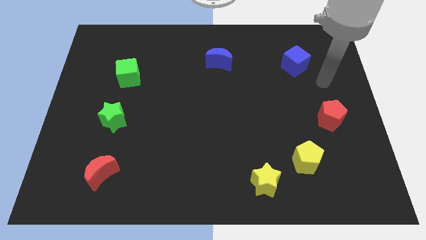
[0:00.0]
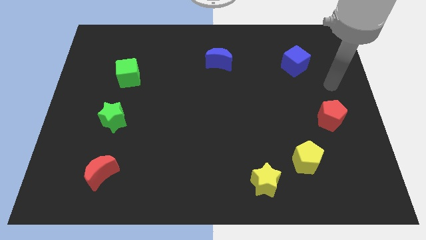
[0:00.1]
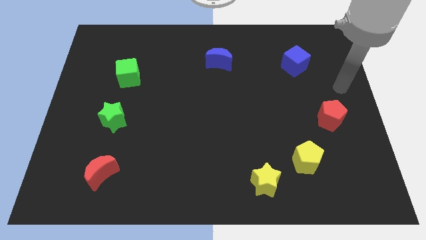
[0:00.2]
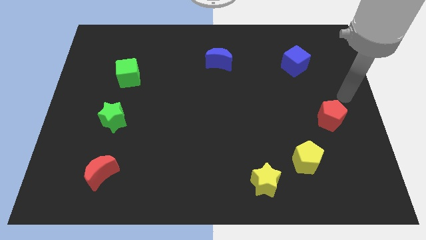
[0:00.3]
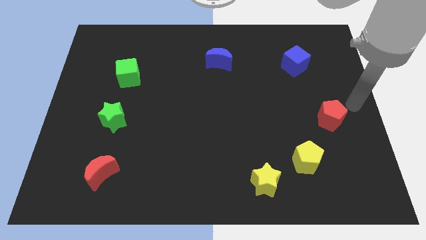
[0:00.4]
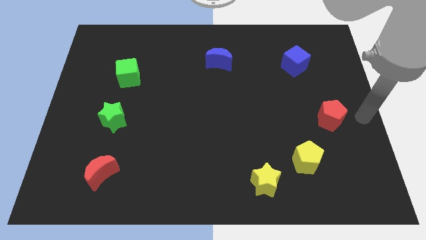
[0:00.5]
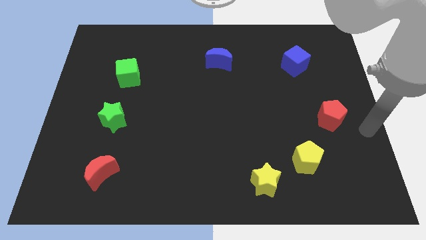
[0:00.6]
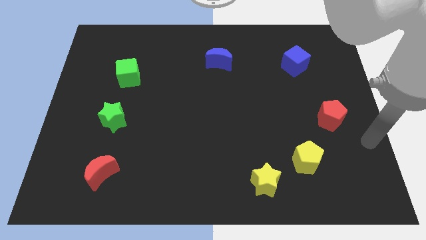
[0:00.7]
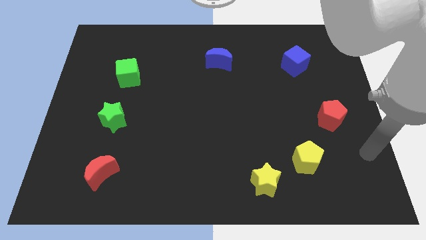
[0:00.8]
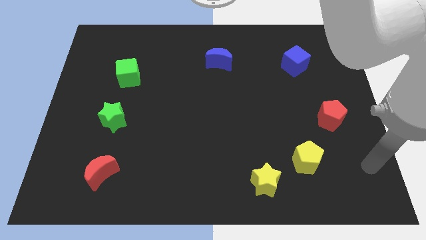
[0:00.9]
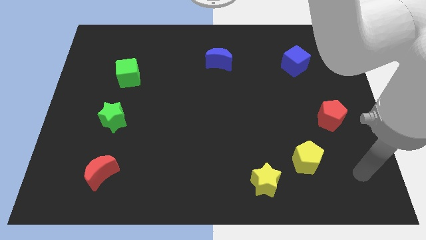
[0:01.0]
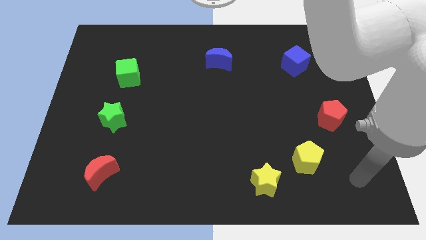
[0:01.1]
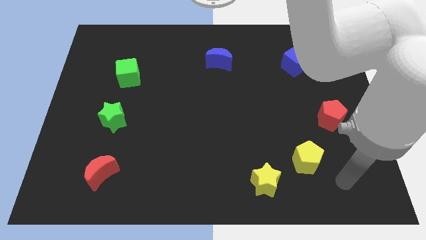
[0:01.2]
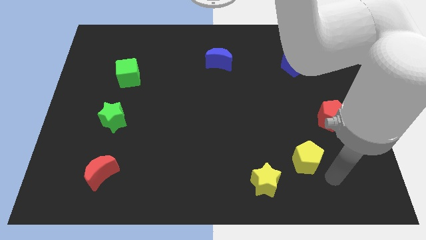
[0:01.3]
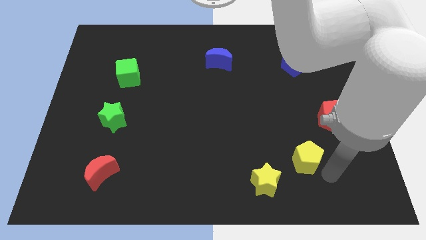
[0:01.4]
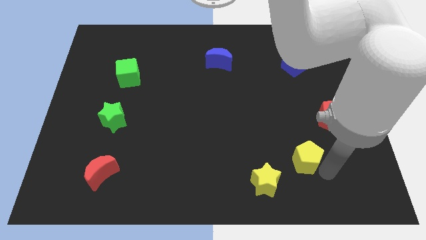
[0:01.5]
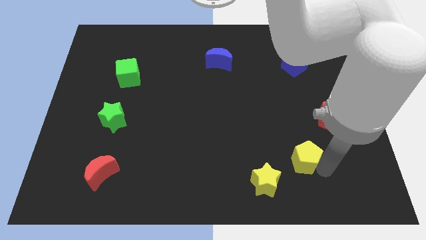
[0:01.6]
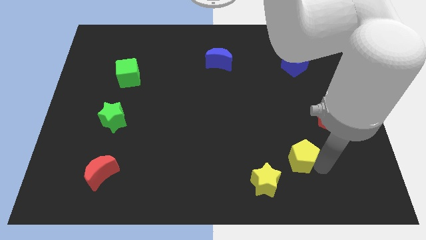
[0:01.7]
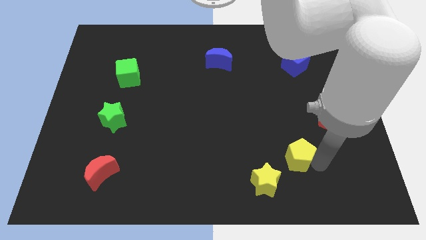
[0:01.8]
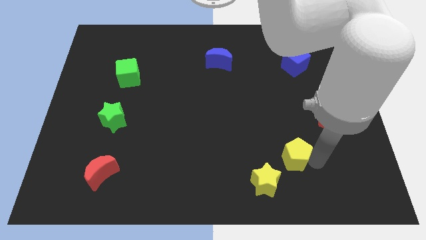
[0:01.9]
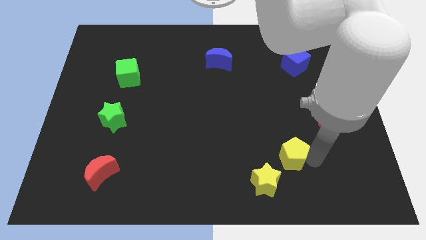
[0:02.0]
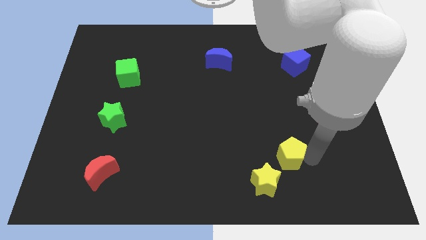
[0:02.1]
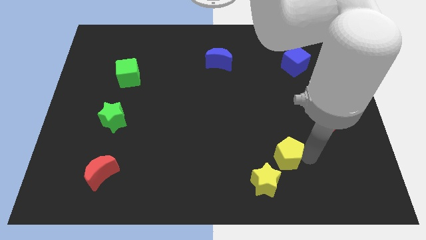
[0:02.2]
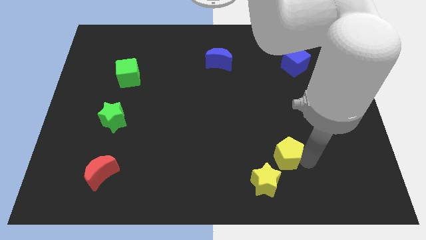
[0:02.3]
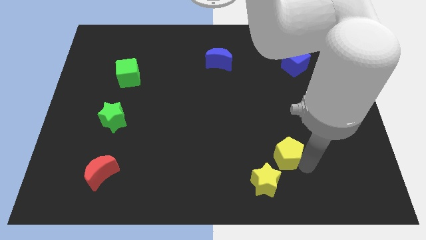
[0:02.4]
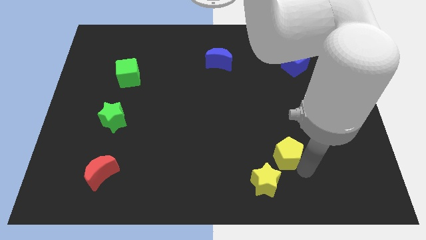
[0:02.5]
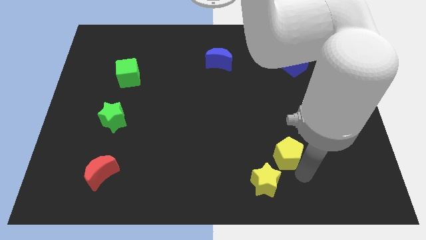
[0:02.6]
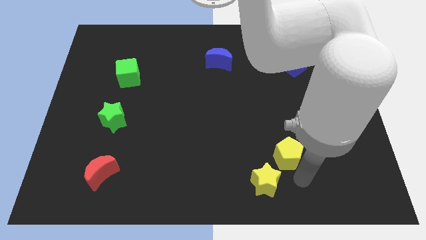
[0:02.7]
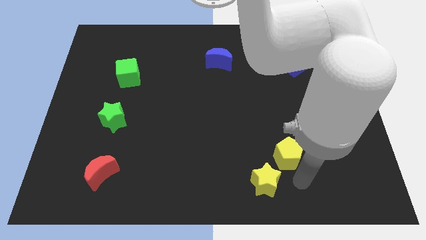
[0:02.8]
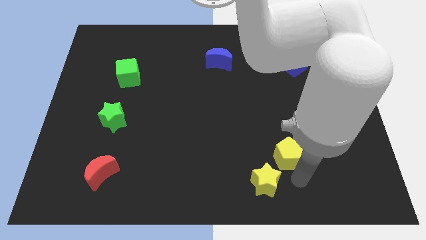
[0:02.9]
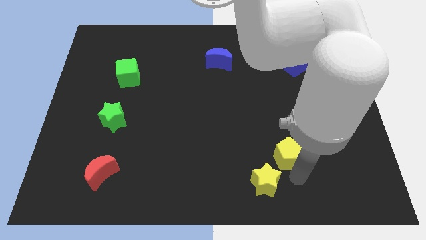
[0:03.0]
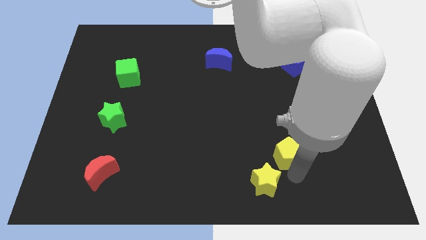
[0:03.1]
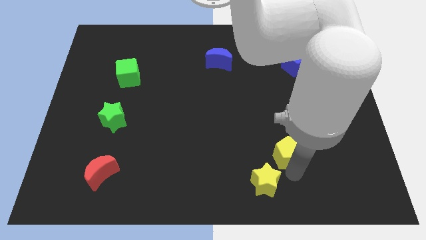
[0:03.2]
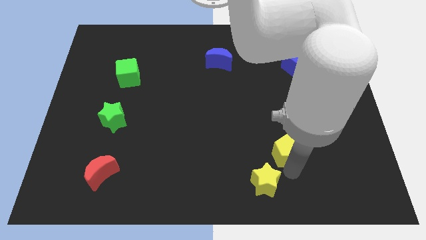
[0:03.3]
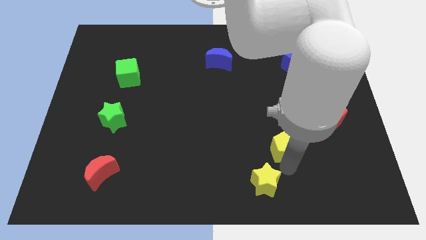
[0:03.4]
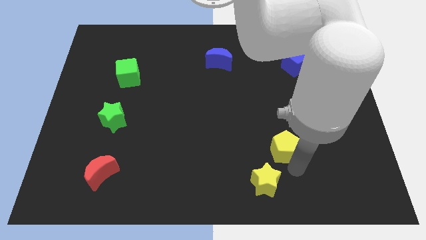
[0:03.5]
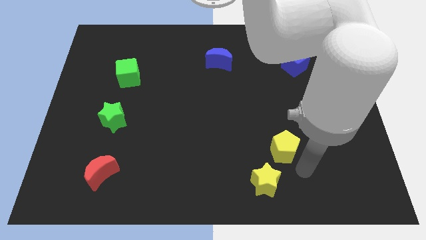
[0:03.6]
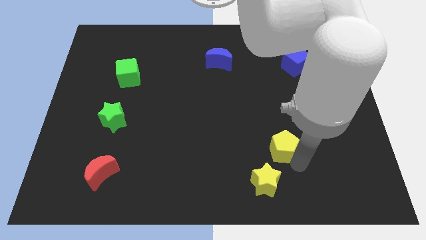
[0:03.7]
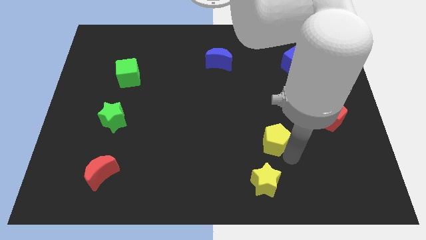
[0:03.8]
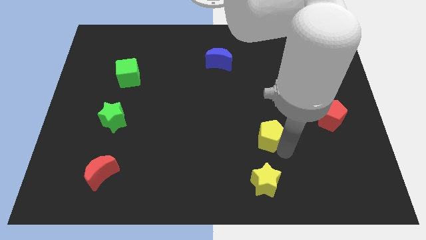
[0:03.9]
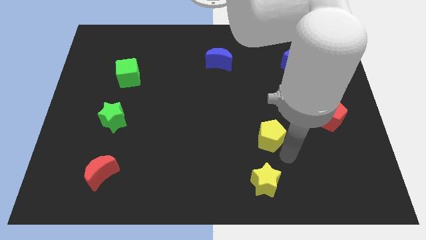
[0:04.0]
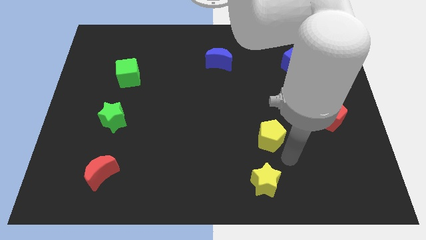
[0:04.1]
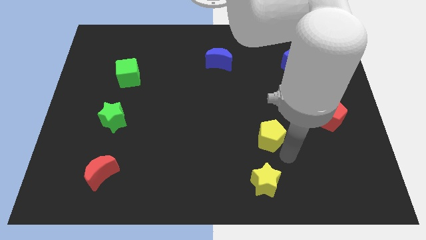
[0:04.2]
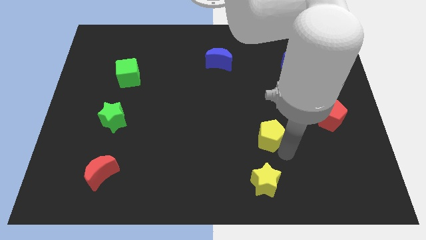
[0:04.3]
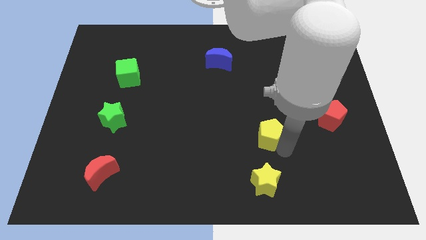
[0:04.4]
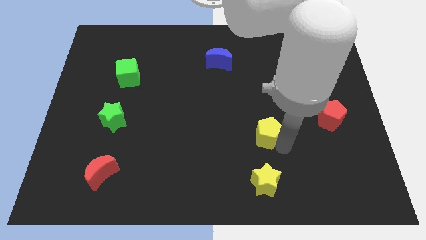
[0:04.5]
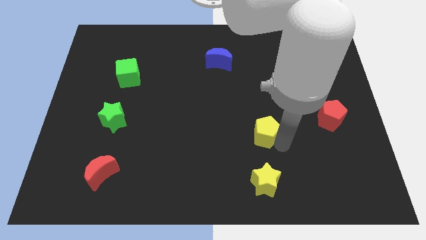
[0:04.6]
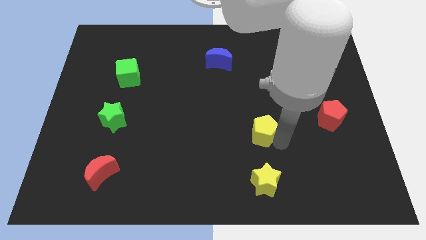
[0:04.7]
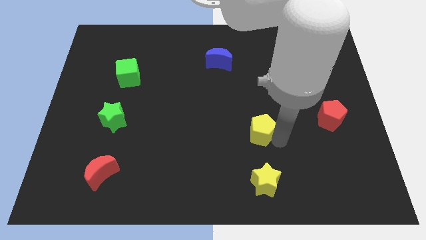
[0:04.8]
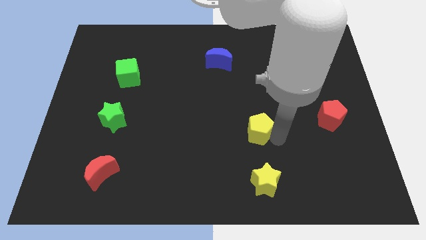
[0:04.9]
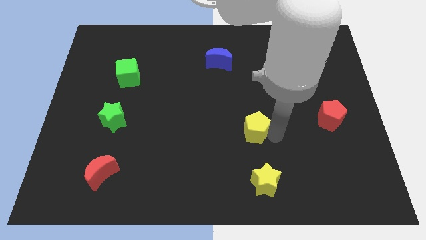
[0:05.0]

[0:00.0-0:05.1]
put the yellow pentagon to the center of the board

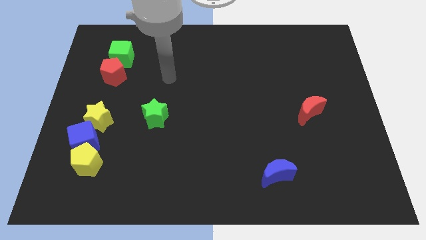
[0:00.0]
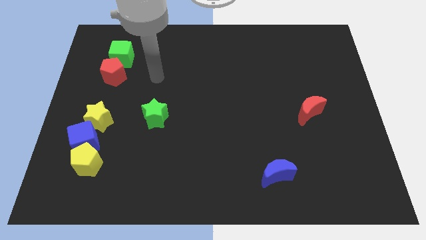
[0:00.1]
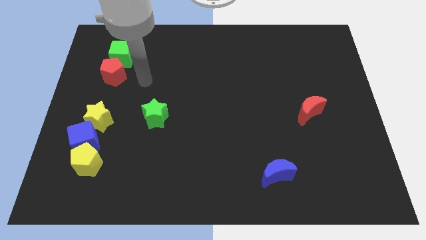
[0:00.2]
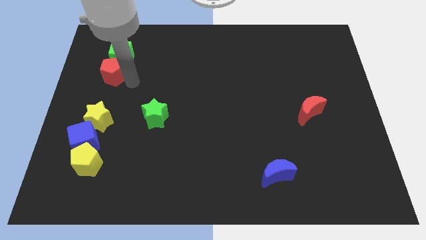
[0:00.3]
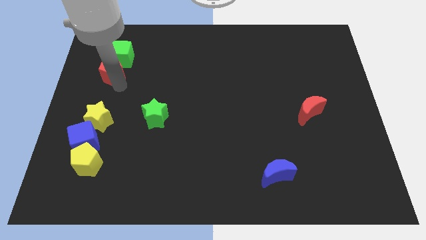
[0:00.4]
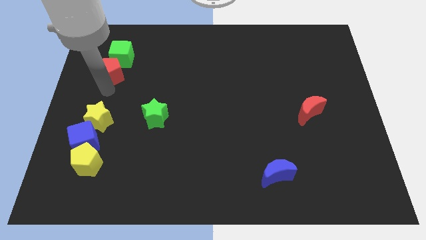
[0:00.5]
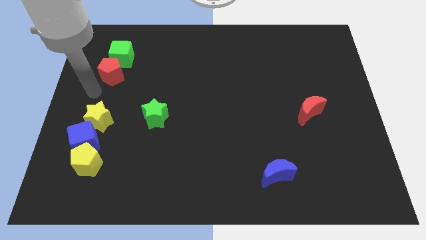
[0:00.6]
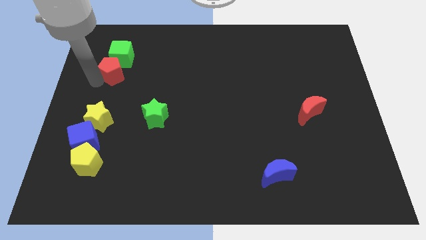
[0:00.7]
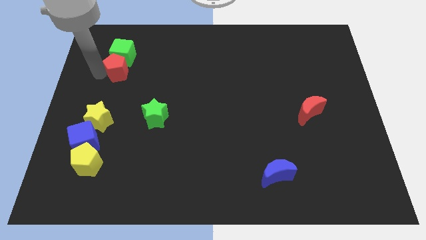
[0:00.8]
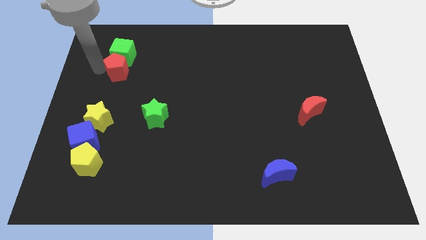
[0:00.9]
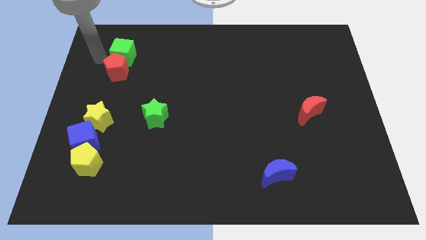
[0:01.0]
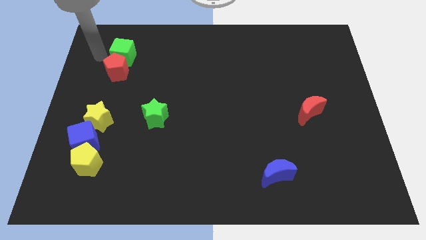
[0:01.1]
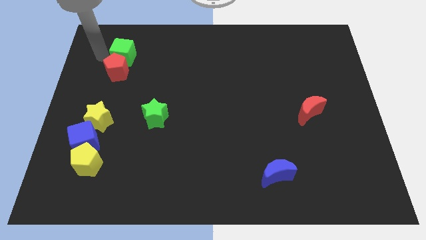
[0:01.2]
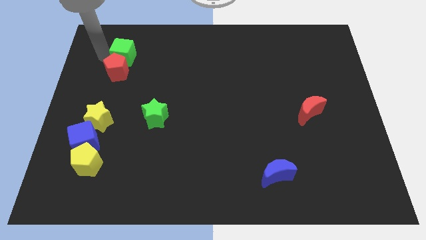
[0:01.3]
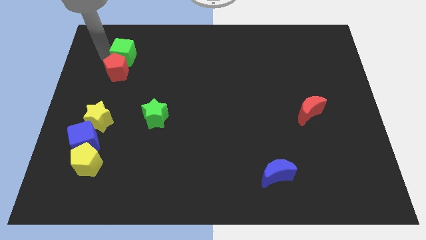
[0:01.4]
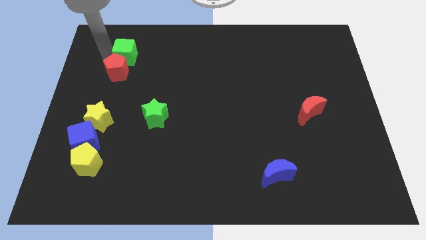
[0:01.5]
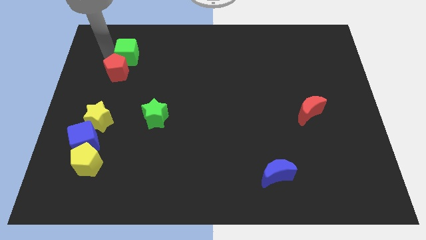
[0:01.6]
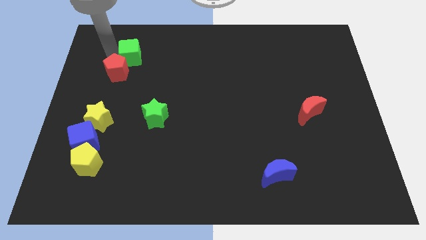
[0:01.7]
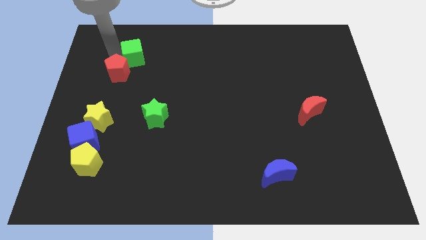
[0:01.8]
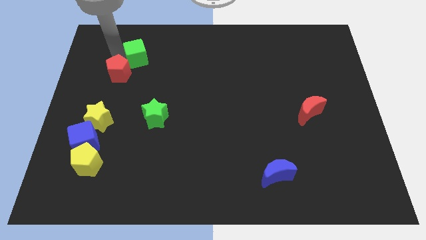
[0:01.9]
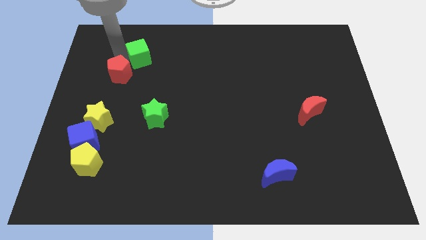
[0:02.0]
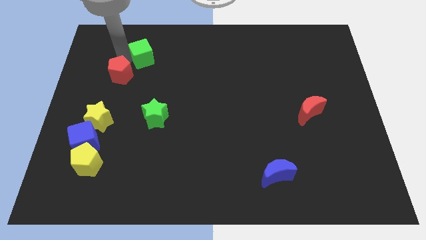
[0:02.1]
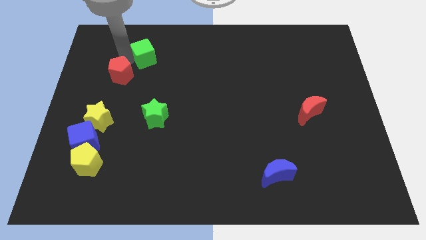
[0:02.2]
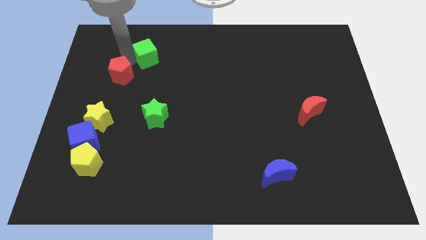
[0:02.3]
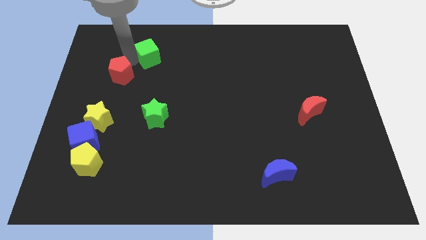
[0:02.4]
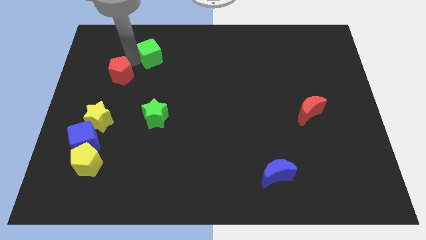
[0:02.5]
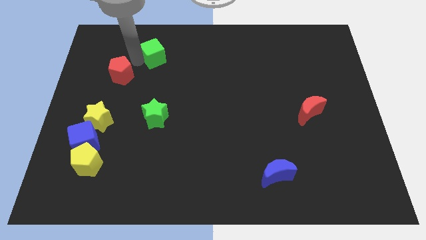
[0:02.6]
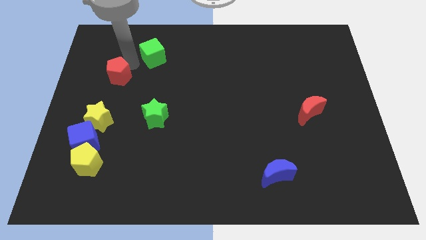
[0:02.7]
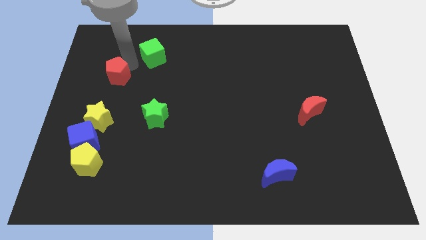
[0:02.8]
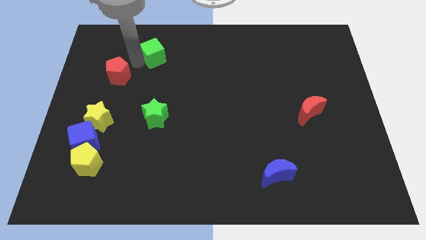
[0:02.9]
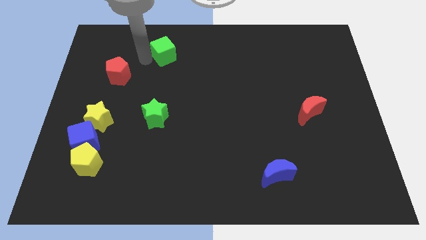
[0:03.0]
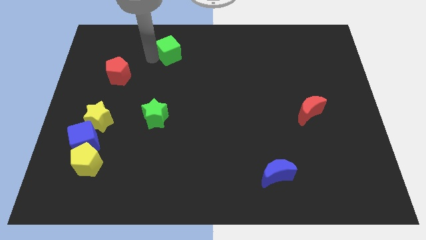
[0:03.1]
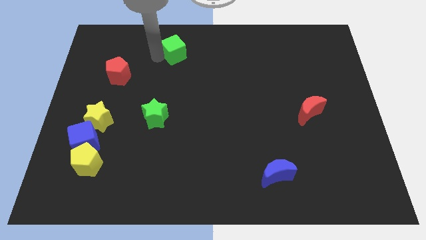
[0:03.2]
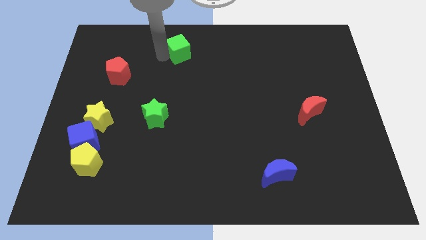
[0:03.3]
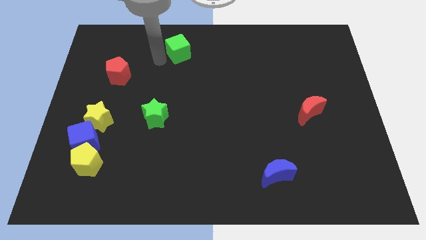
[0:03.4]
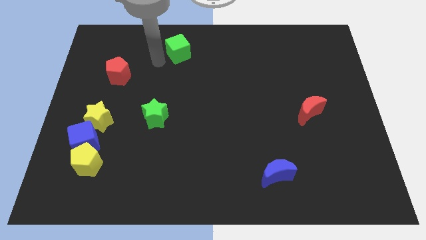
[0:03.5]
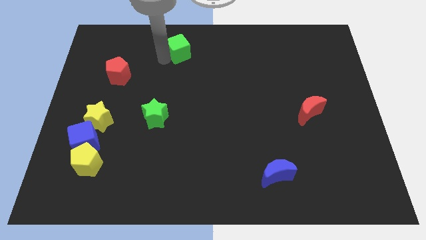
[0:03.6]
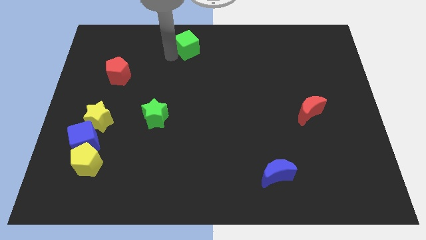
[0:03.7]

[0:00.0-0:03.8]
move the green cube to the top
